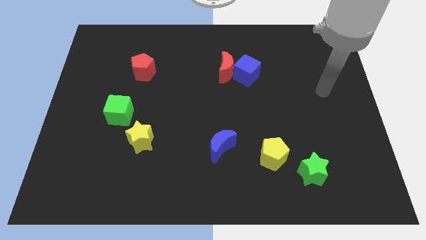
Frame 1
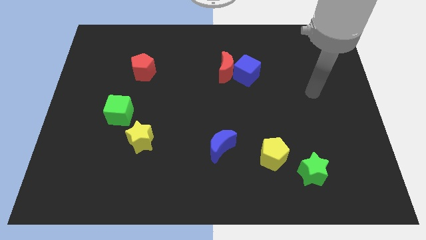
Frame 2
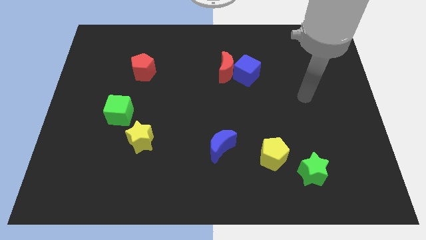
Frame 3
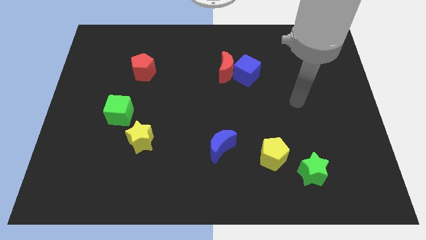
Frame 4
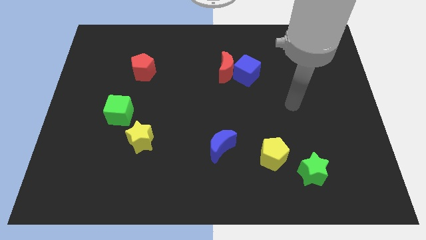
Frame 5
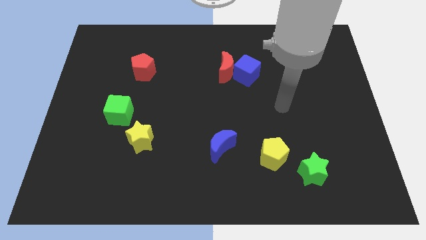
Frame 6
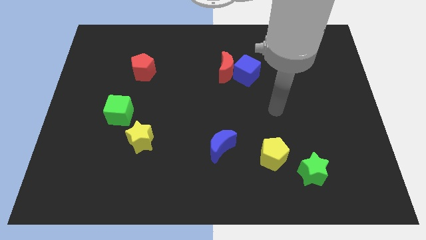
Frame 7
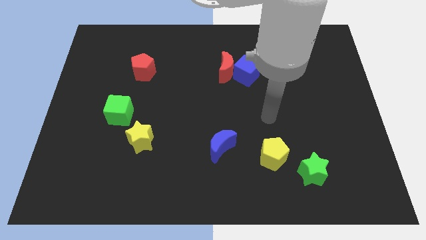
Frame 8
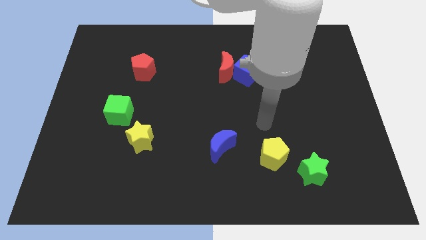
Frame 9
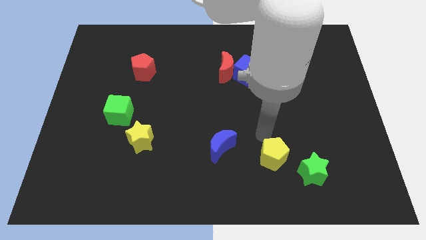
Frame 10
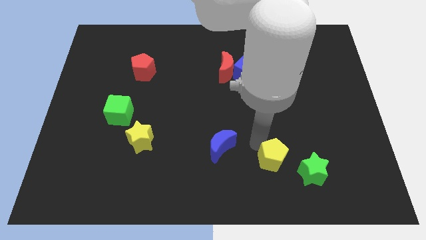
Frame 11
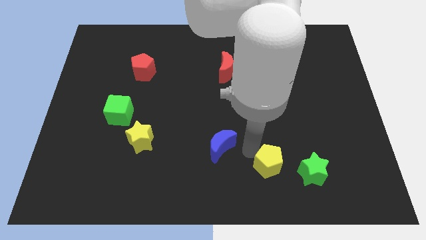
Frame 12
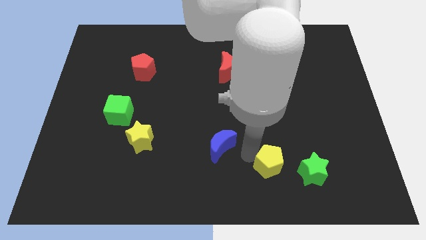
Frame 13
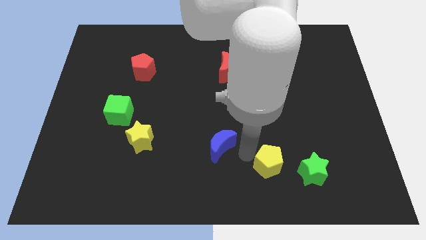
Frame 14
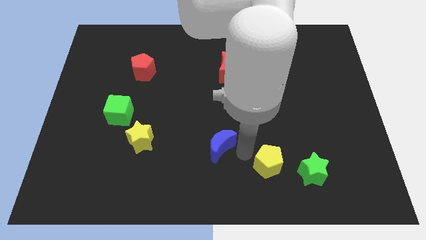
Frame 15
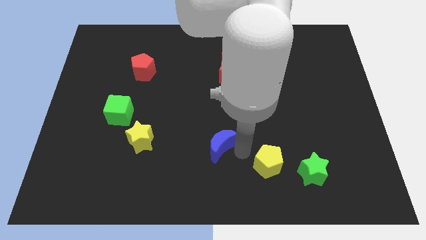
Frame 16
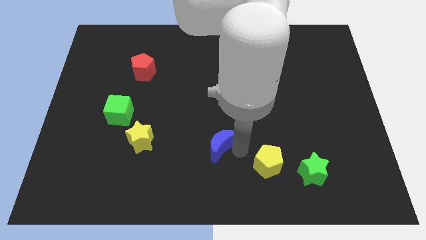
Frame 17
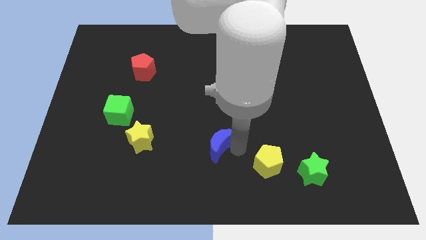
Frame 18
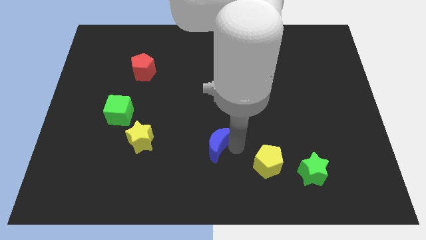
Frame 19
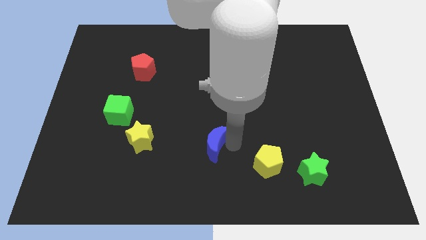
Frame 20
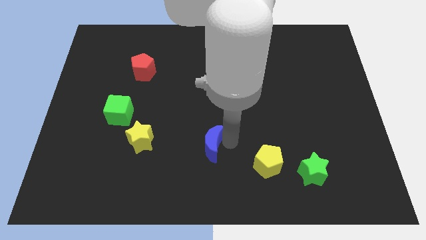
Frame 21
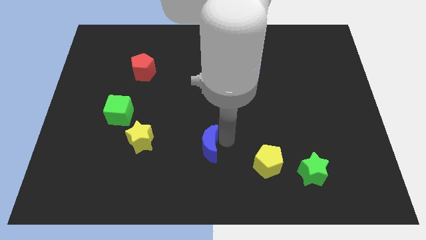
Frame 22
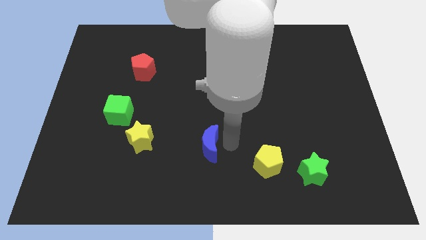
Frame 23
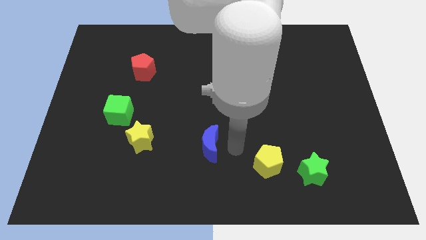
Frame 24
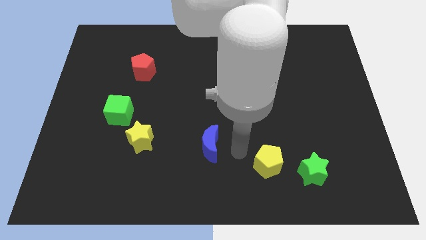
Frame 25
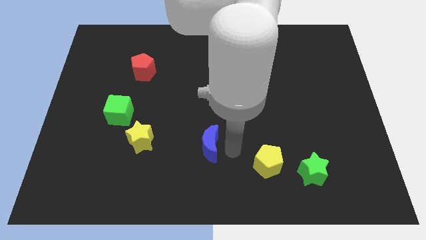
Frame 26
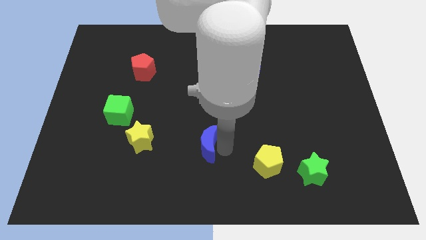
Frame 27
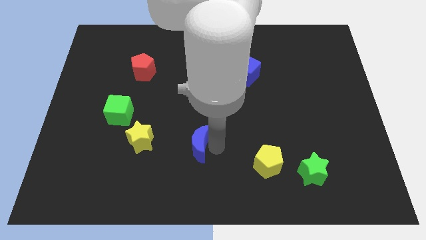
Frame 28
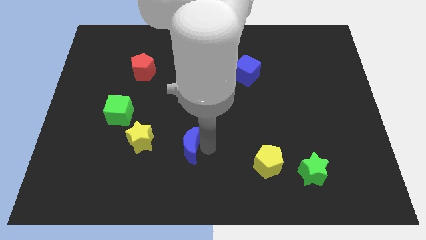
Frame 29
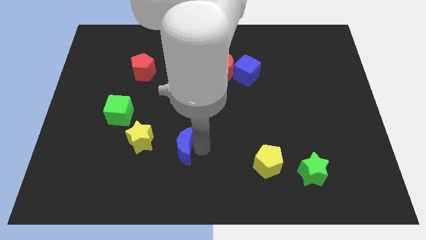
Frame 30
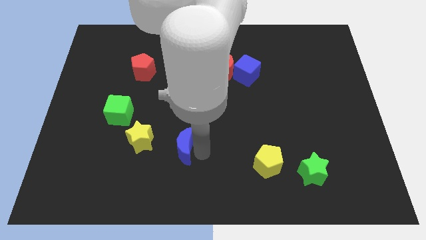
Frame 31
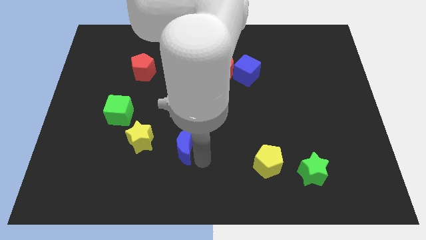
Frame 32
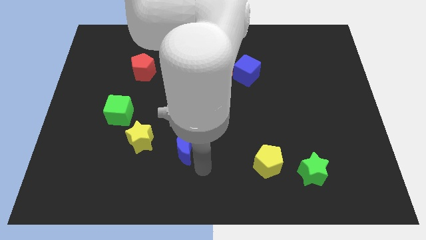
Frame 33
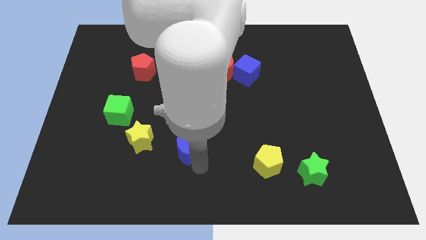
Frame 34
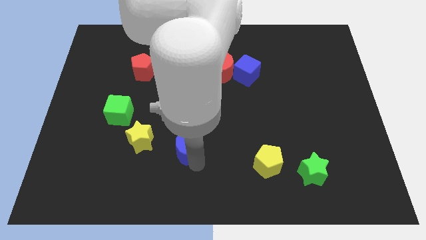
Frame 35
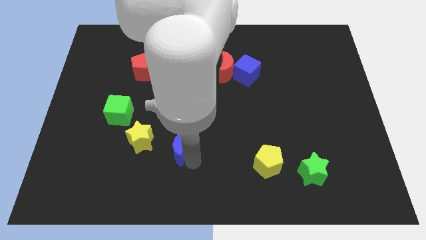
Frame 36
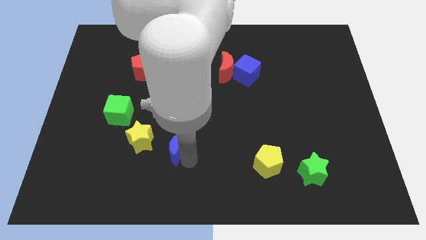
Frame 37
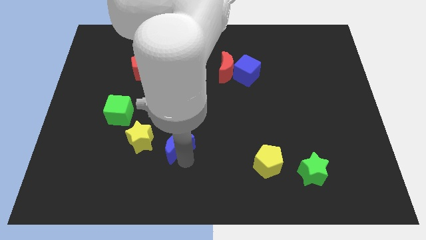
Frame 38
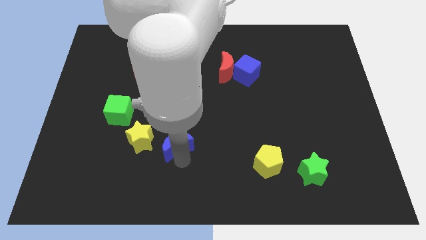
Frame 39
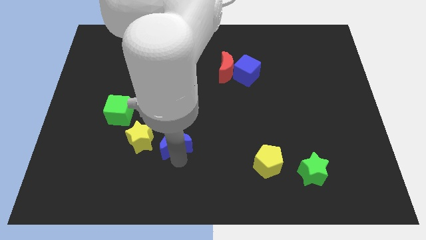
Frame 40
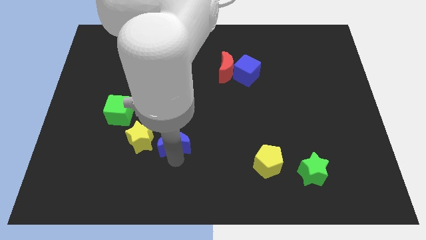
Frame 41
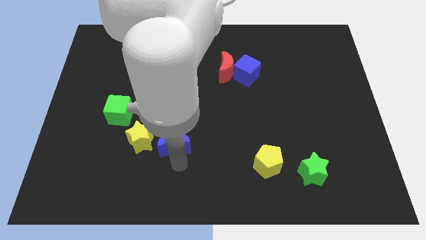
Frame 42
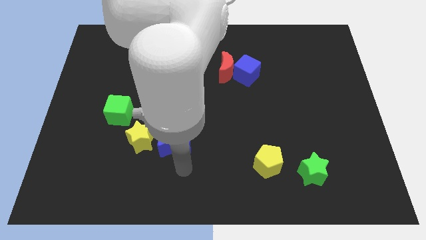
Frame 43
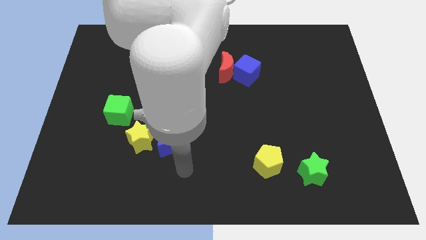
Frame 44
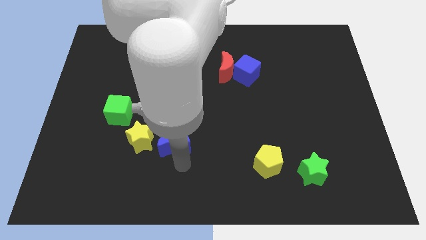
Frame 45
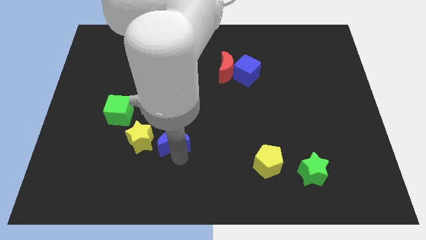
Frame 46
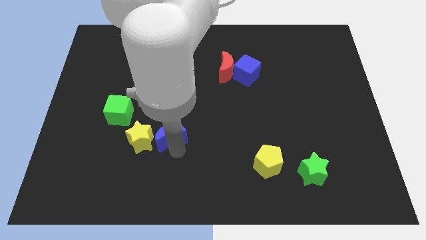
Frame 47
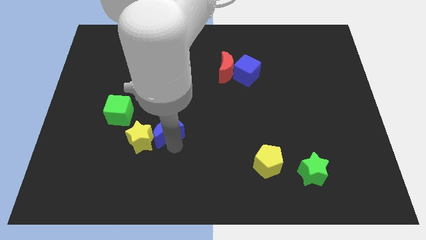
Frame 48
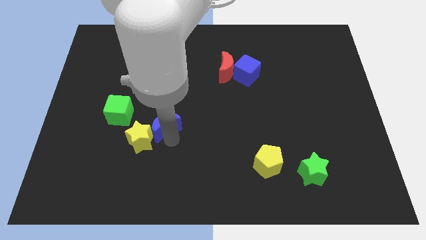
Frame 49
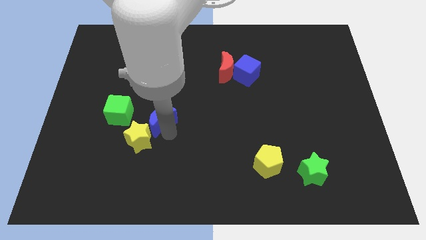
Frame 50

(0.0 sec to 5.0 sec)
move the blue moon above the yellow star

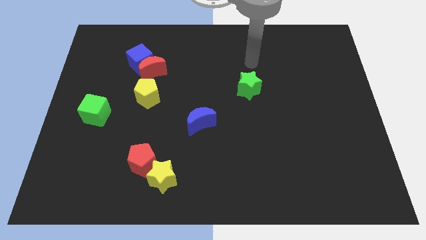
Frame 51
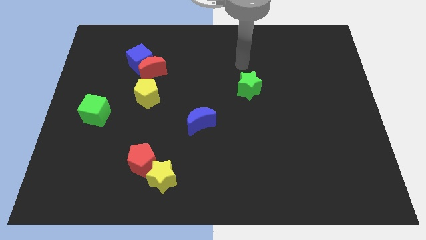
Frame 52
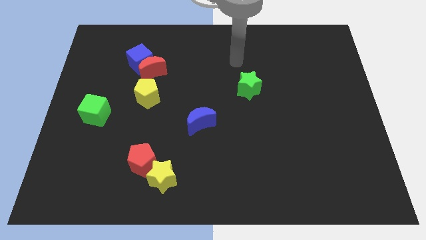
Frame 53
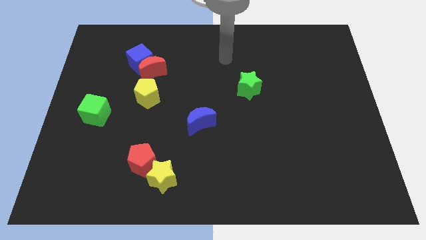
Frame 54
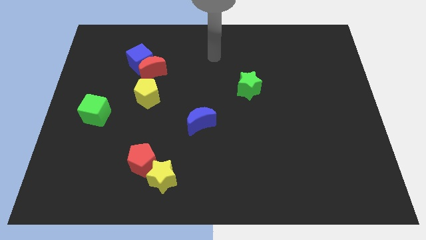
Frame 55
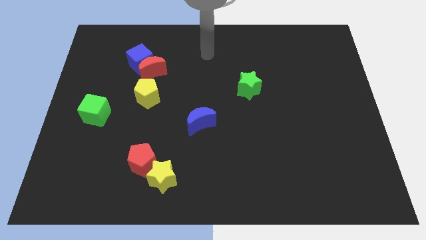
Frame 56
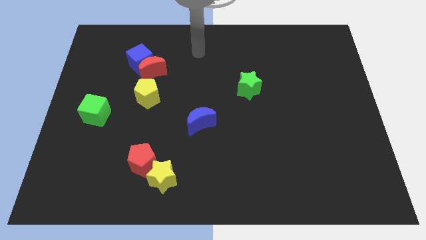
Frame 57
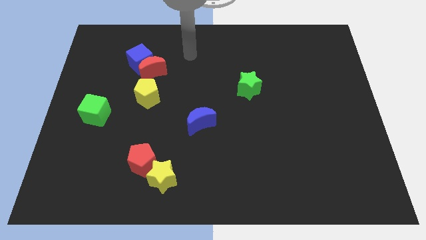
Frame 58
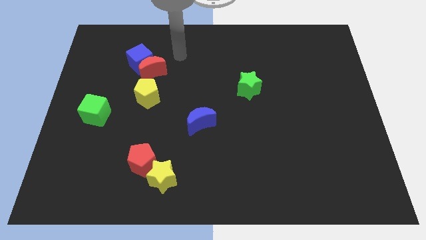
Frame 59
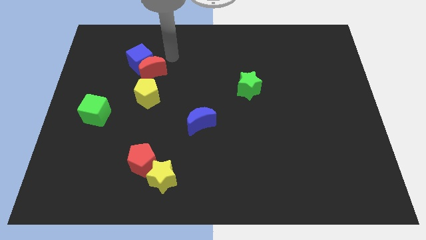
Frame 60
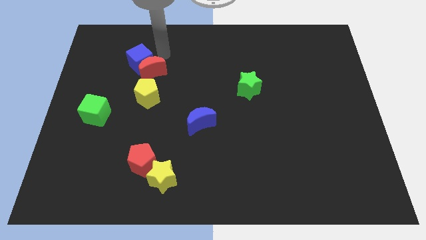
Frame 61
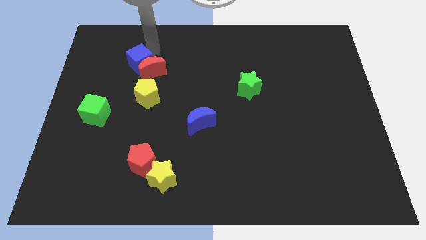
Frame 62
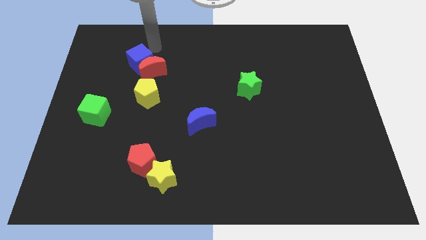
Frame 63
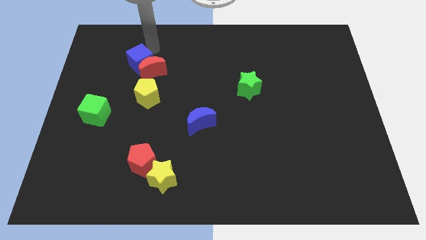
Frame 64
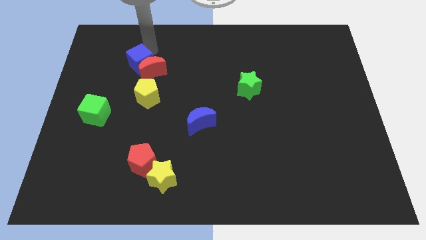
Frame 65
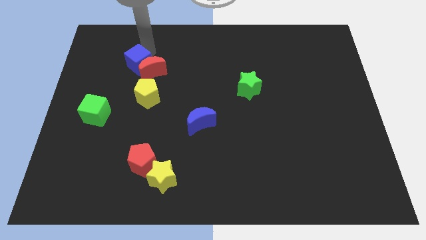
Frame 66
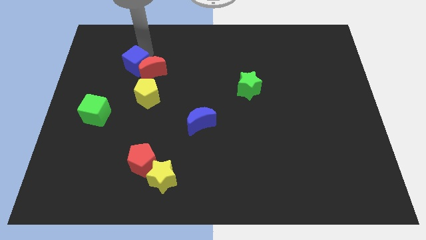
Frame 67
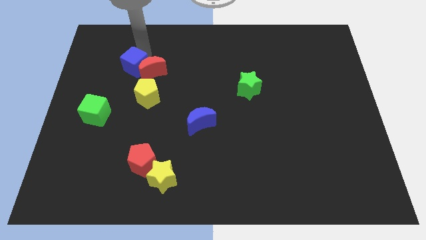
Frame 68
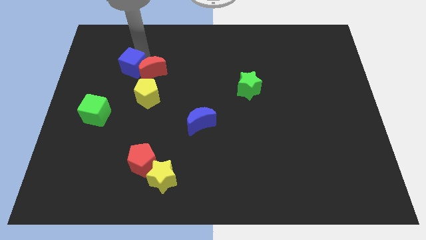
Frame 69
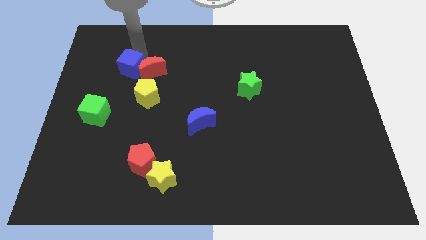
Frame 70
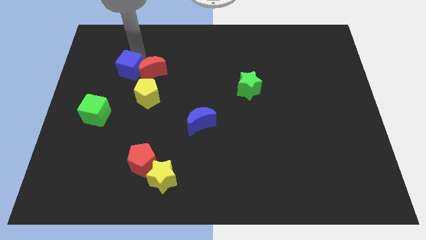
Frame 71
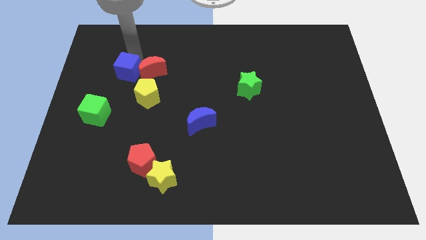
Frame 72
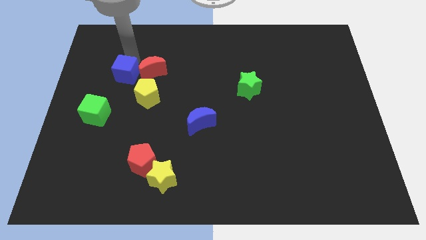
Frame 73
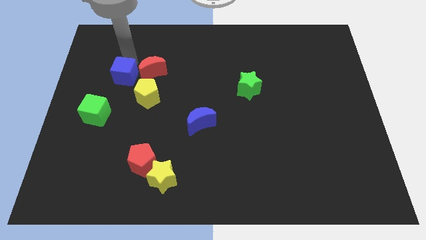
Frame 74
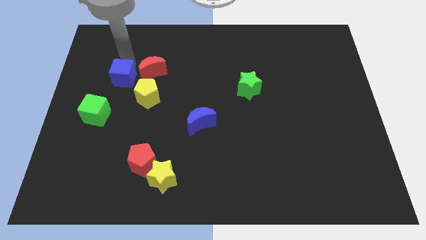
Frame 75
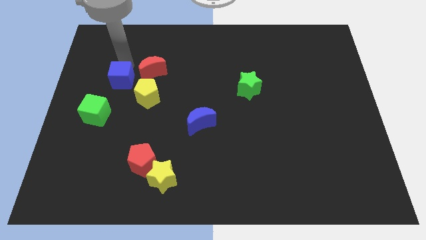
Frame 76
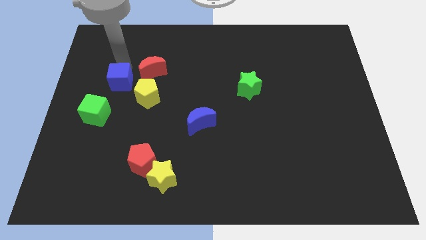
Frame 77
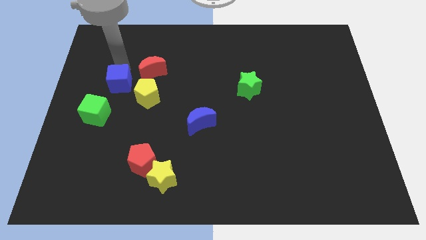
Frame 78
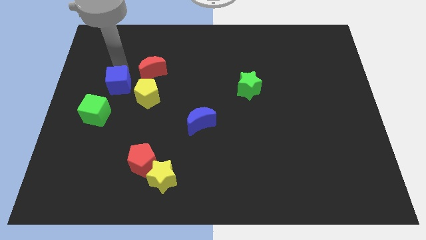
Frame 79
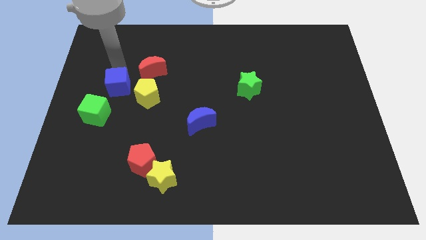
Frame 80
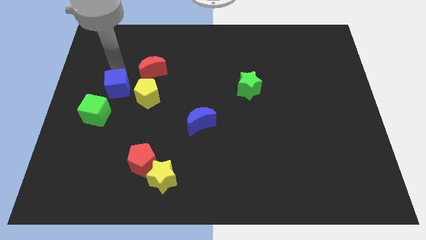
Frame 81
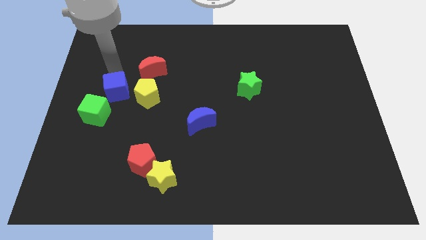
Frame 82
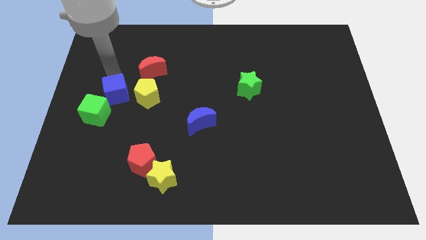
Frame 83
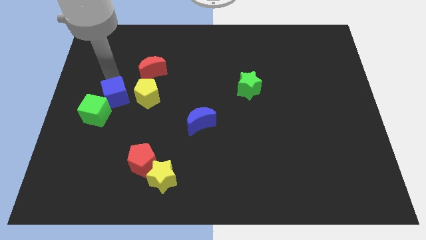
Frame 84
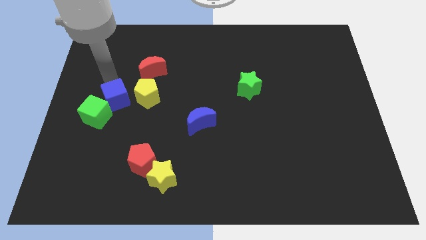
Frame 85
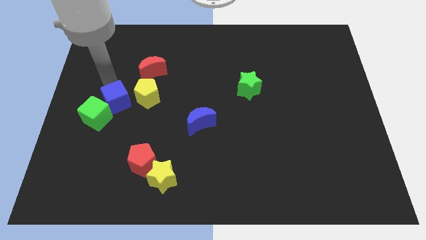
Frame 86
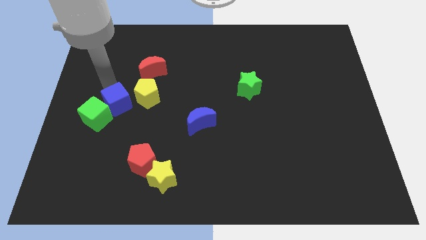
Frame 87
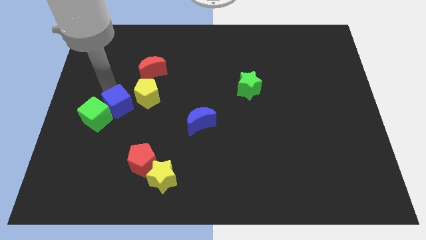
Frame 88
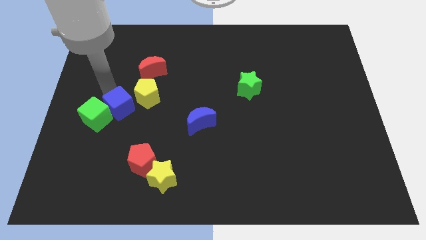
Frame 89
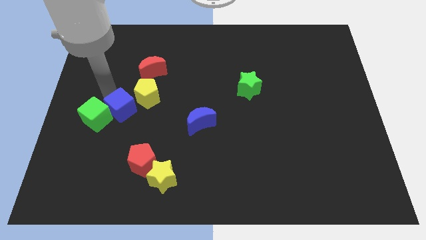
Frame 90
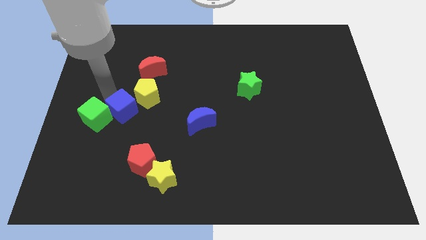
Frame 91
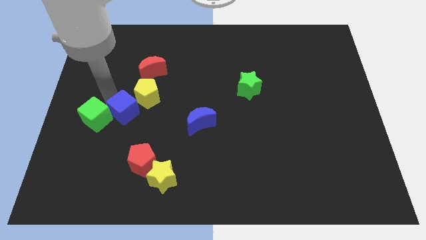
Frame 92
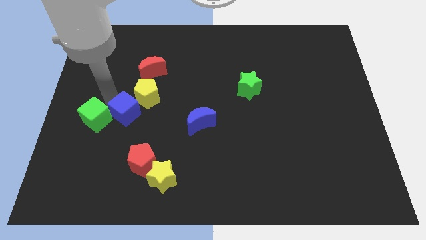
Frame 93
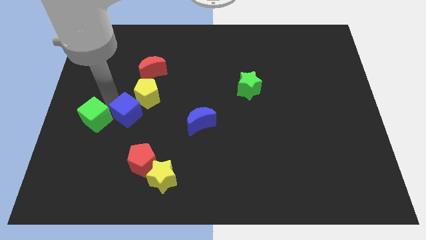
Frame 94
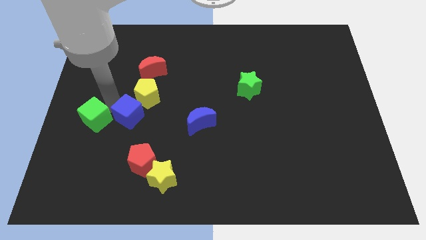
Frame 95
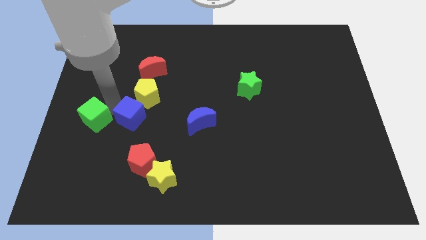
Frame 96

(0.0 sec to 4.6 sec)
put the blue cube left of the blue moon
